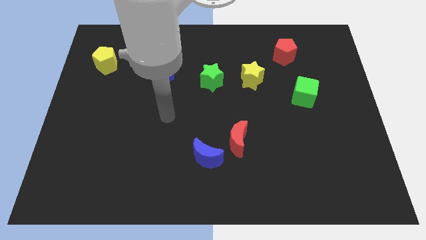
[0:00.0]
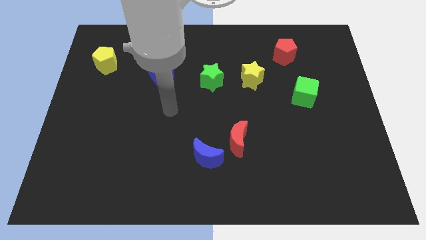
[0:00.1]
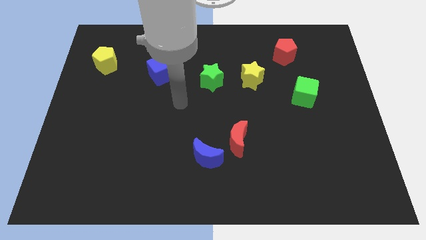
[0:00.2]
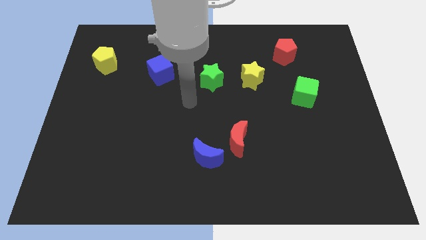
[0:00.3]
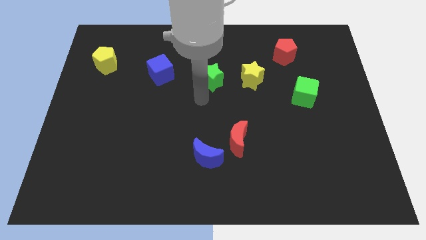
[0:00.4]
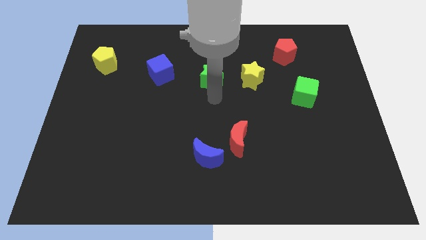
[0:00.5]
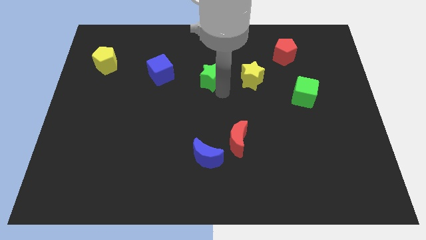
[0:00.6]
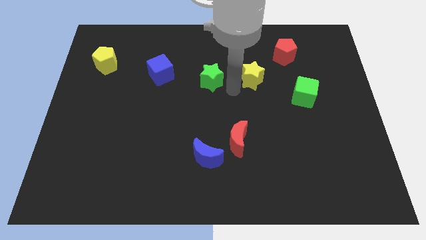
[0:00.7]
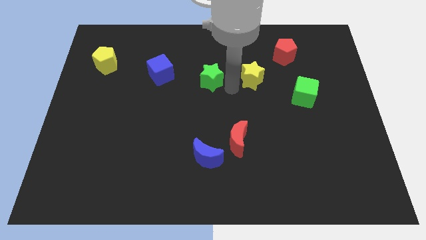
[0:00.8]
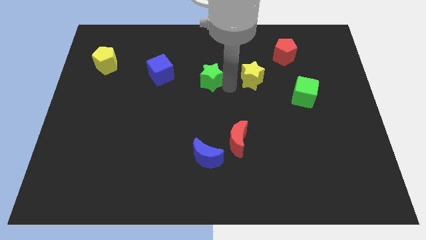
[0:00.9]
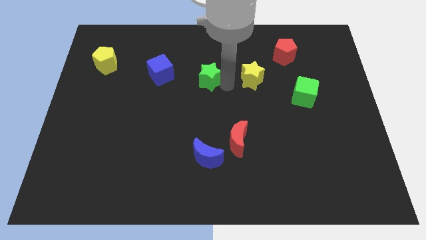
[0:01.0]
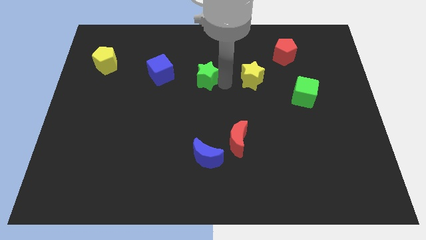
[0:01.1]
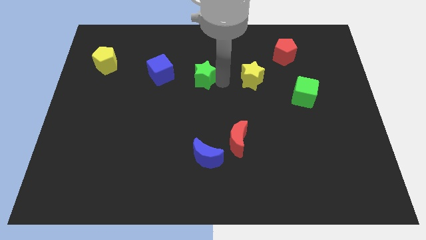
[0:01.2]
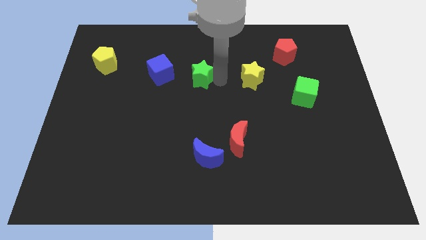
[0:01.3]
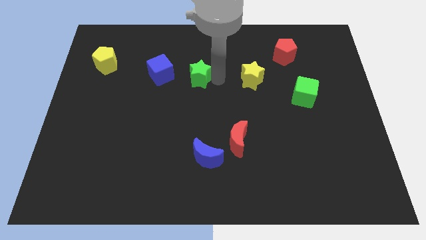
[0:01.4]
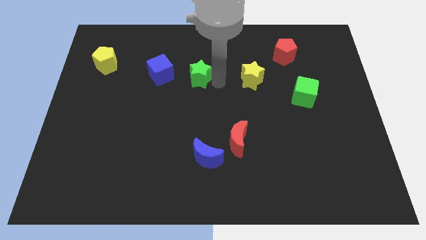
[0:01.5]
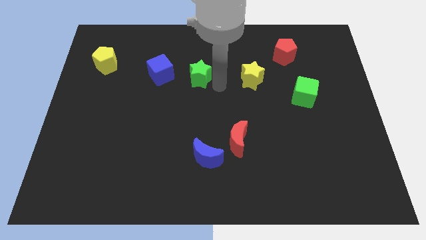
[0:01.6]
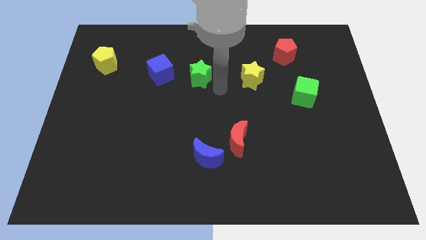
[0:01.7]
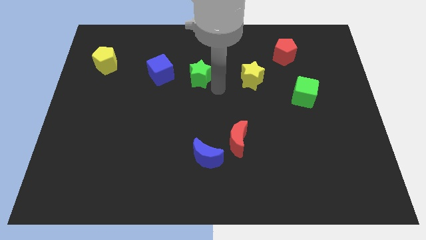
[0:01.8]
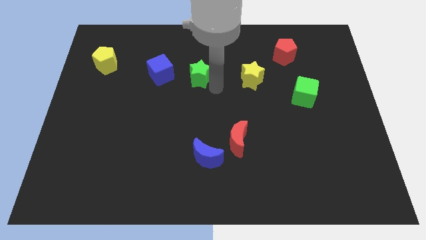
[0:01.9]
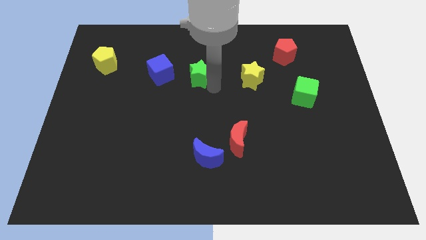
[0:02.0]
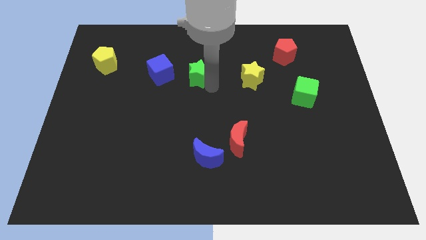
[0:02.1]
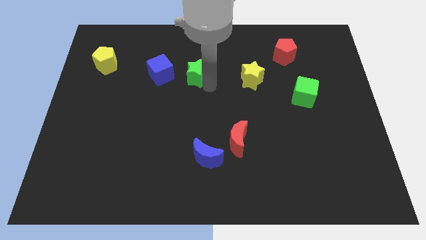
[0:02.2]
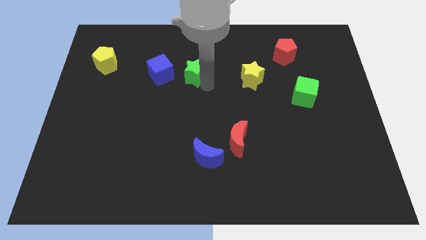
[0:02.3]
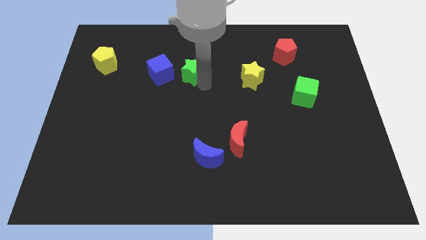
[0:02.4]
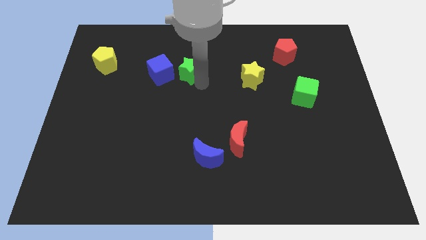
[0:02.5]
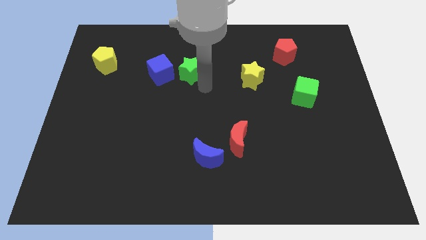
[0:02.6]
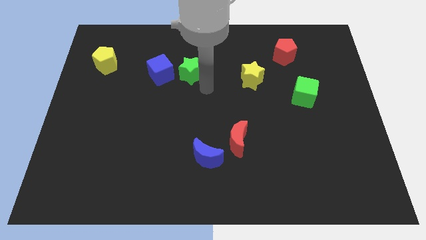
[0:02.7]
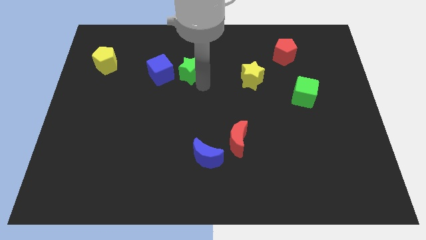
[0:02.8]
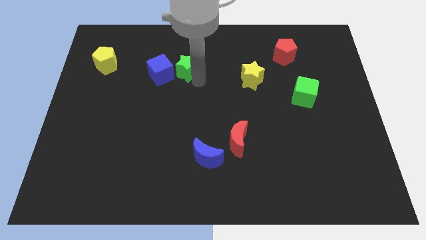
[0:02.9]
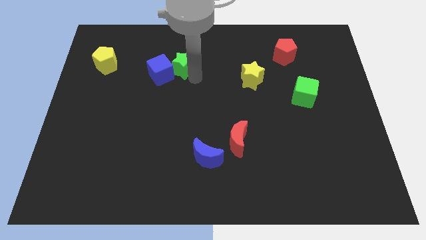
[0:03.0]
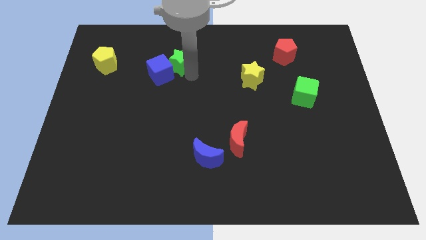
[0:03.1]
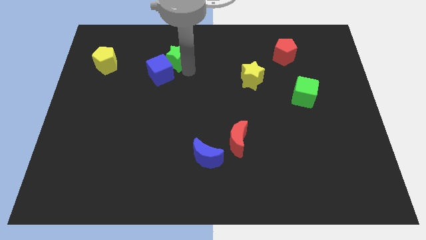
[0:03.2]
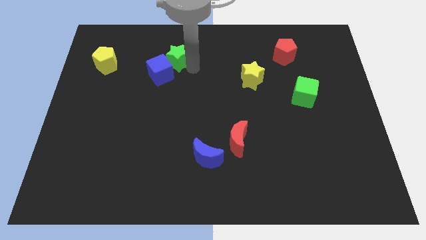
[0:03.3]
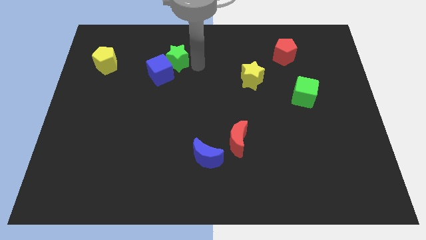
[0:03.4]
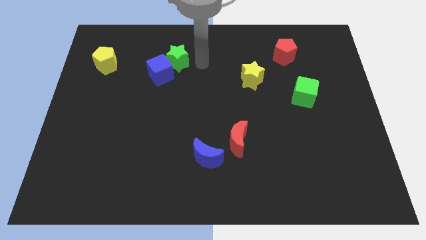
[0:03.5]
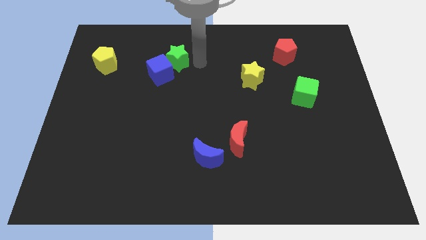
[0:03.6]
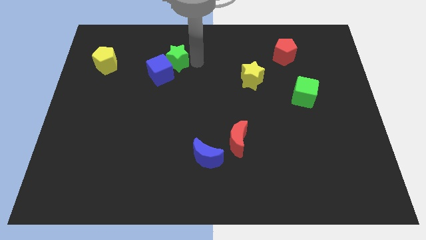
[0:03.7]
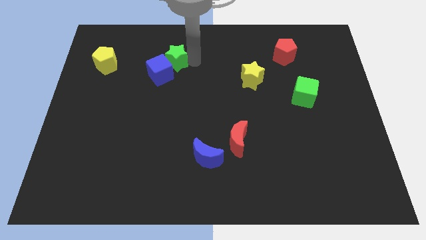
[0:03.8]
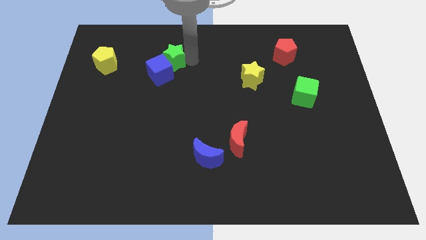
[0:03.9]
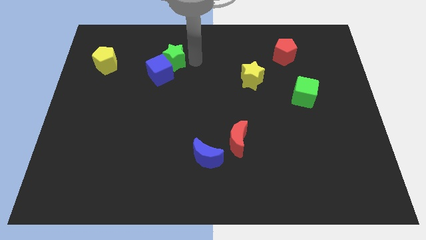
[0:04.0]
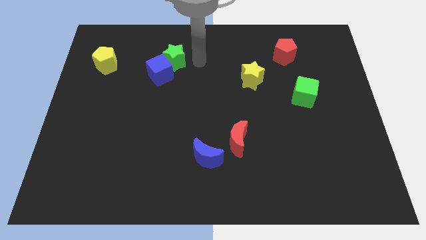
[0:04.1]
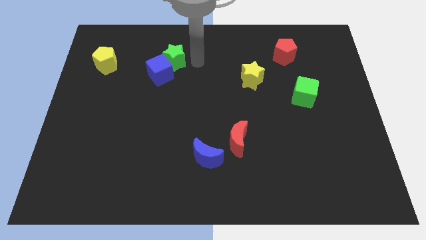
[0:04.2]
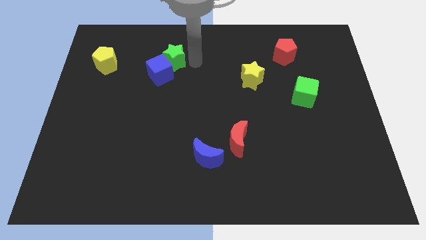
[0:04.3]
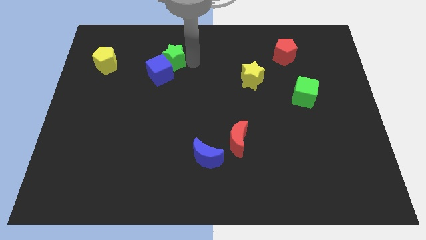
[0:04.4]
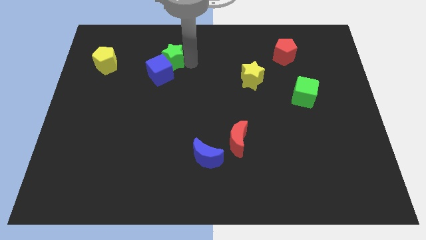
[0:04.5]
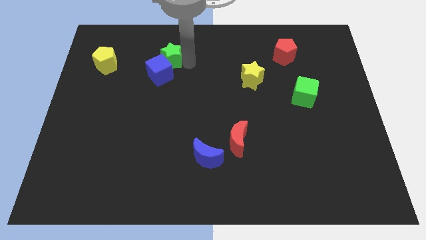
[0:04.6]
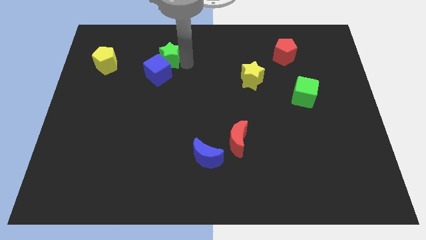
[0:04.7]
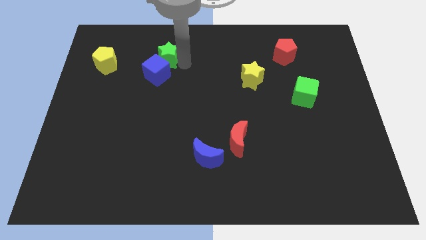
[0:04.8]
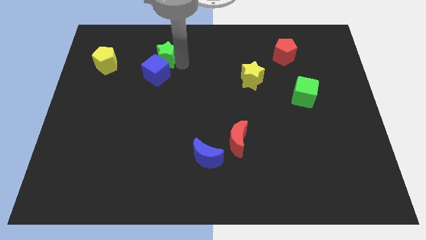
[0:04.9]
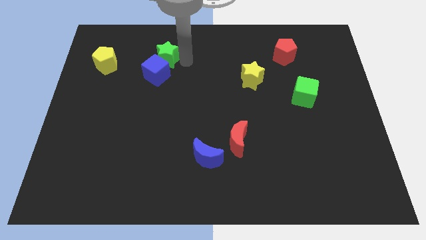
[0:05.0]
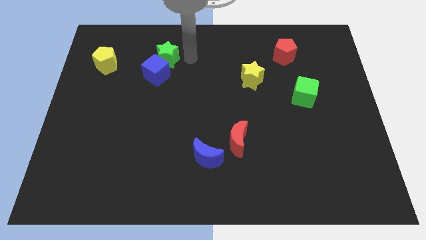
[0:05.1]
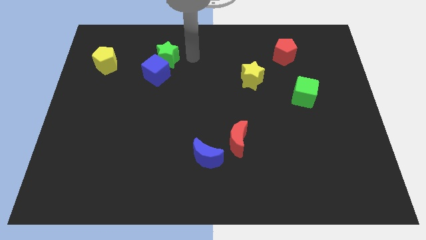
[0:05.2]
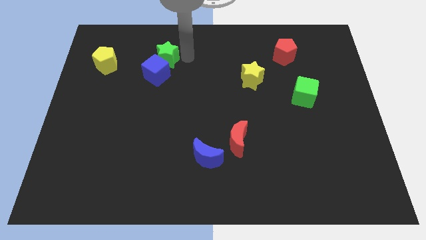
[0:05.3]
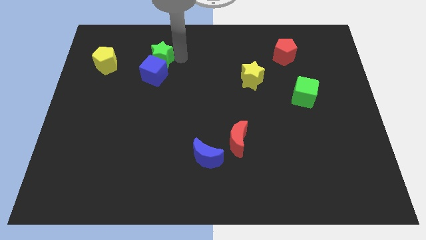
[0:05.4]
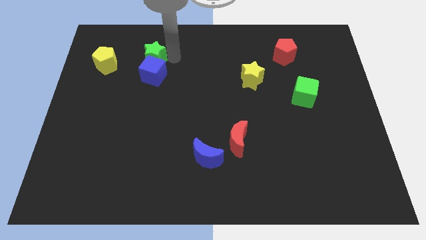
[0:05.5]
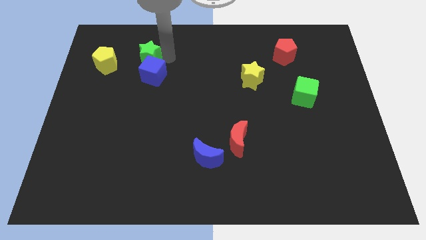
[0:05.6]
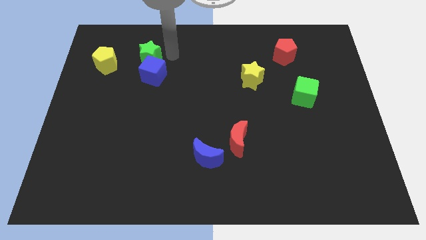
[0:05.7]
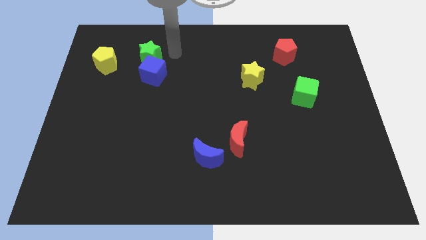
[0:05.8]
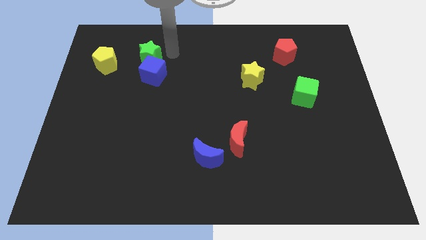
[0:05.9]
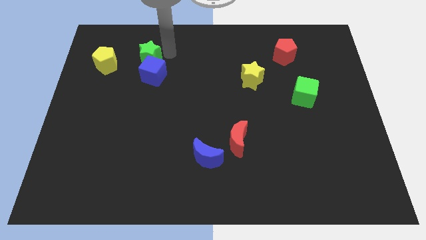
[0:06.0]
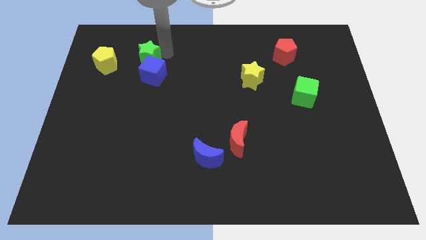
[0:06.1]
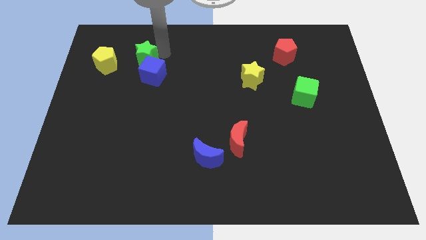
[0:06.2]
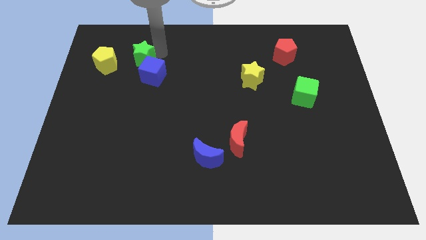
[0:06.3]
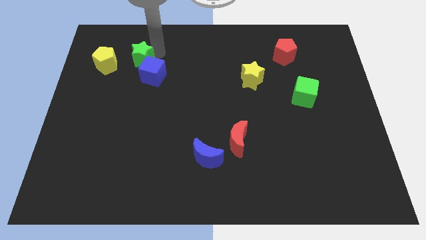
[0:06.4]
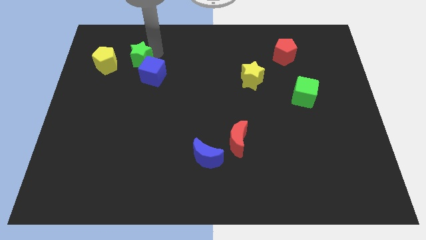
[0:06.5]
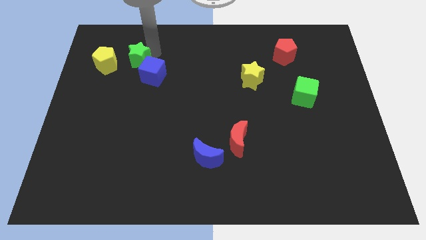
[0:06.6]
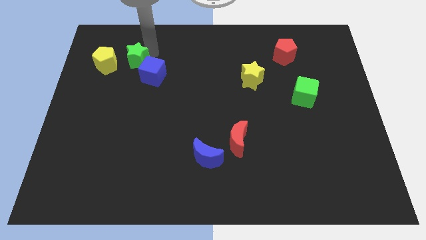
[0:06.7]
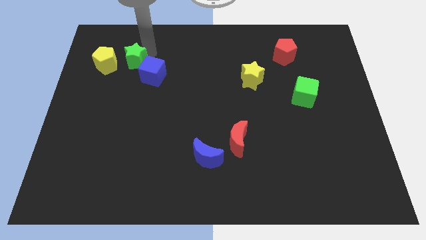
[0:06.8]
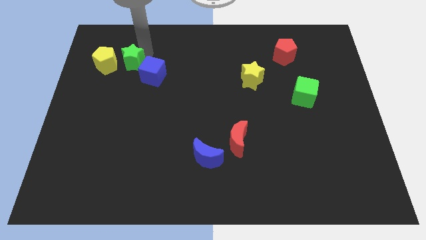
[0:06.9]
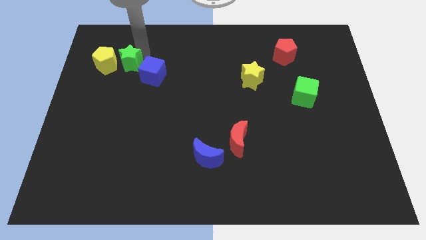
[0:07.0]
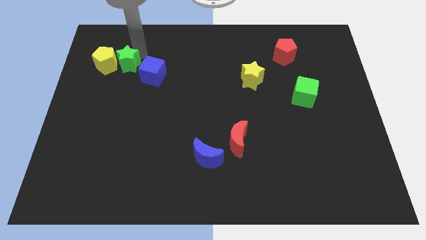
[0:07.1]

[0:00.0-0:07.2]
push the green star towards the yellow pentagon
